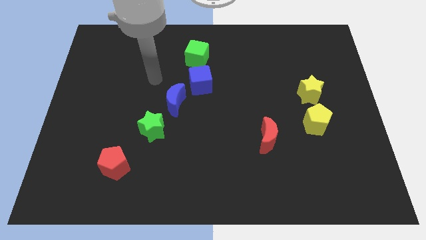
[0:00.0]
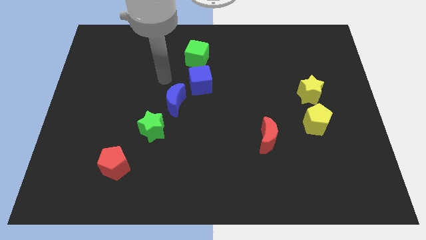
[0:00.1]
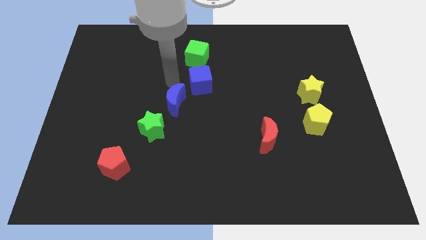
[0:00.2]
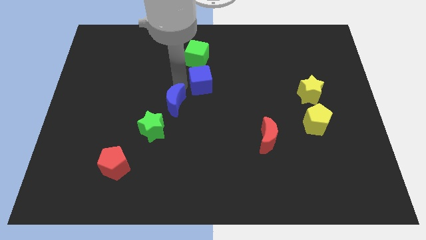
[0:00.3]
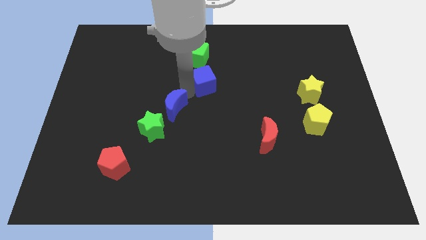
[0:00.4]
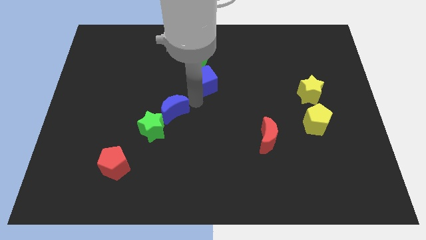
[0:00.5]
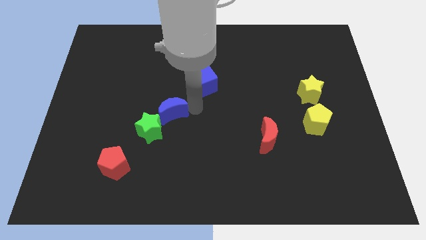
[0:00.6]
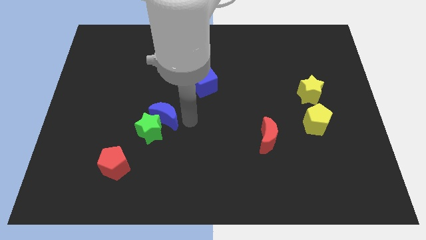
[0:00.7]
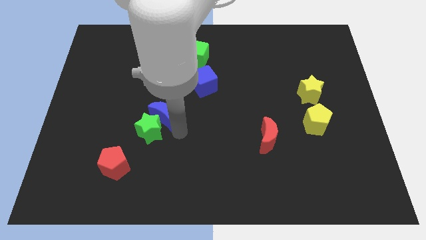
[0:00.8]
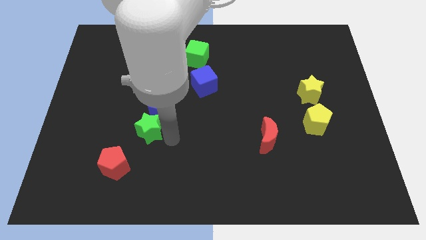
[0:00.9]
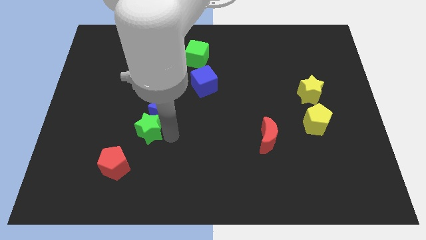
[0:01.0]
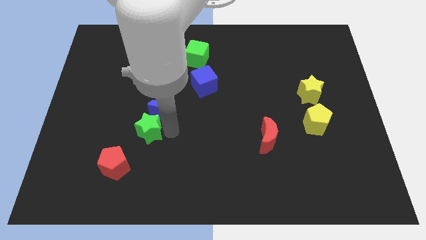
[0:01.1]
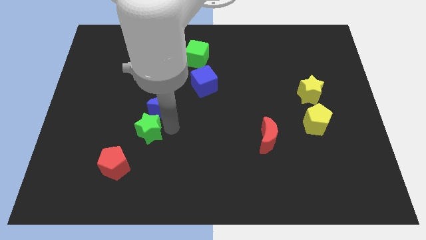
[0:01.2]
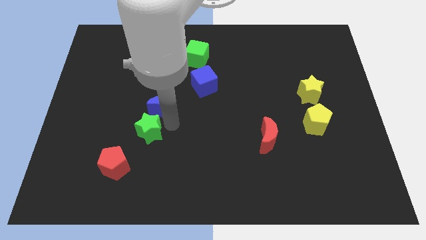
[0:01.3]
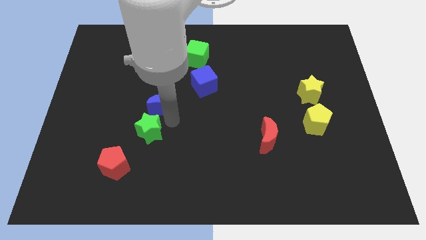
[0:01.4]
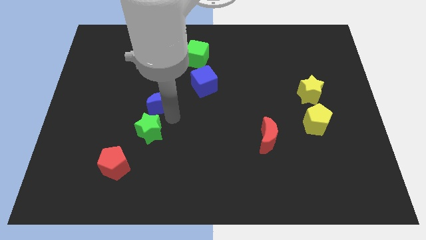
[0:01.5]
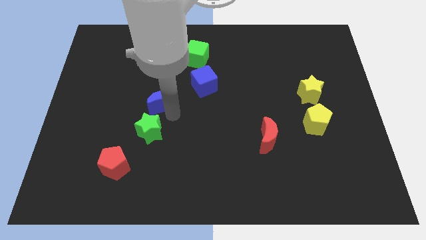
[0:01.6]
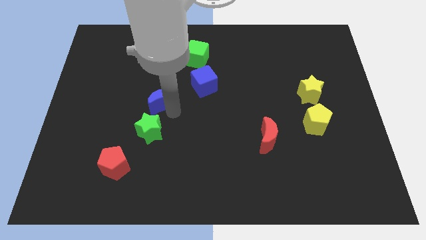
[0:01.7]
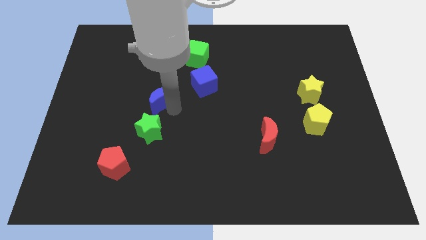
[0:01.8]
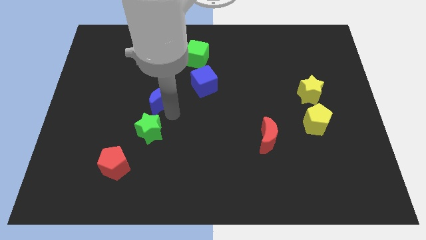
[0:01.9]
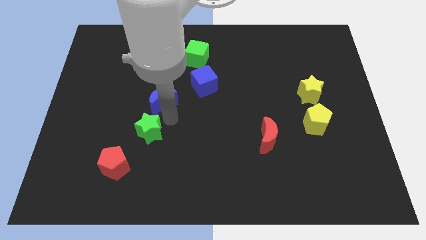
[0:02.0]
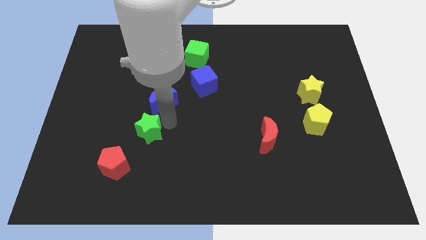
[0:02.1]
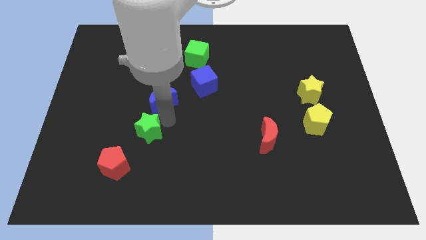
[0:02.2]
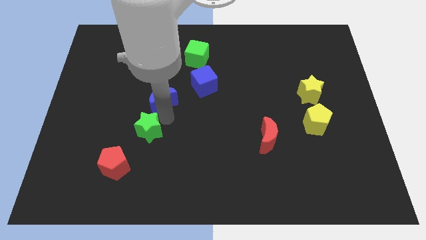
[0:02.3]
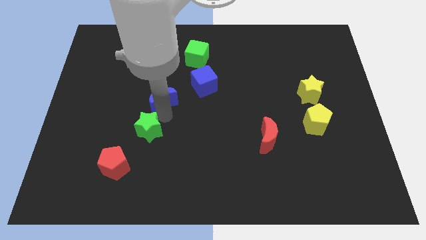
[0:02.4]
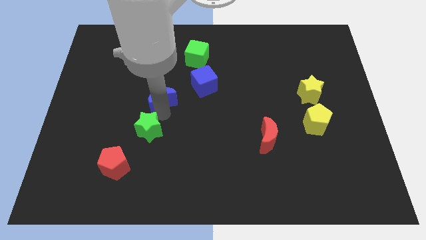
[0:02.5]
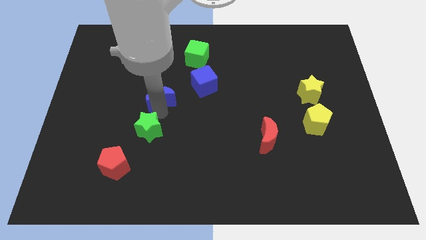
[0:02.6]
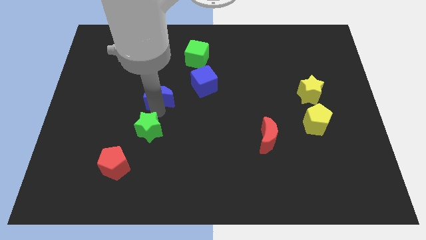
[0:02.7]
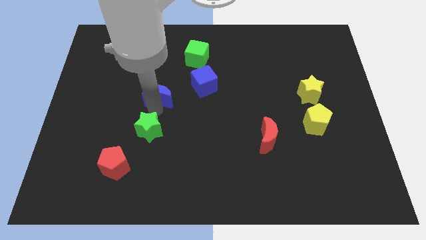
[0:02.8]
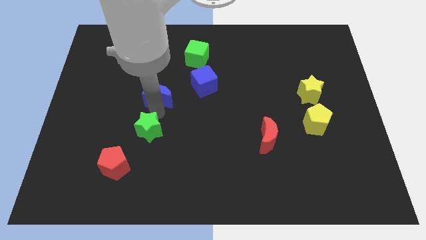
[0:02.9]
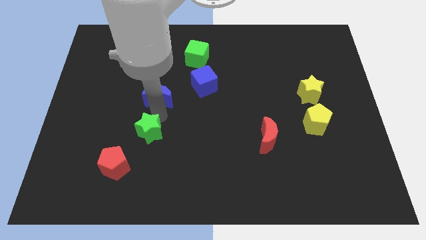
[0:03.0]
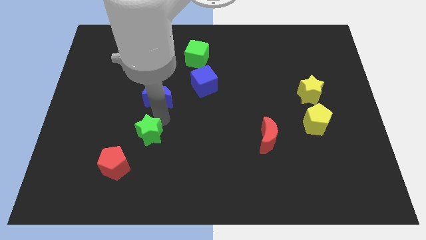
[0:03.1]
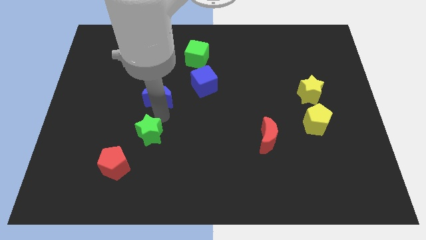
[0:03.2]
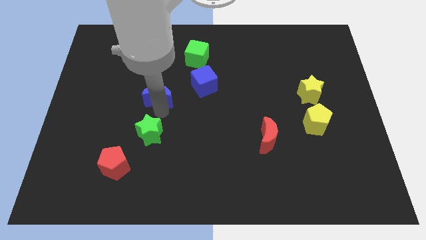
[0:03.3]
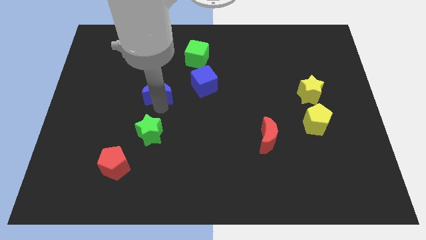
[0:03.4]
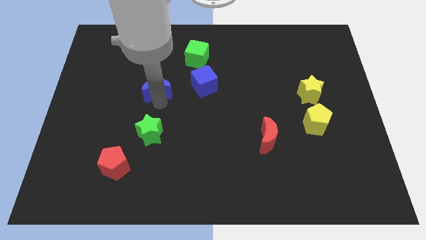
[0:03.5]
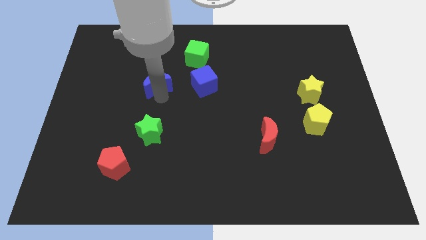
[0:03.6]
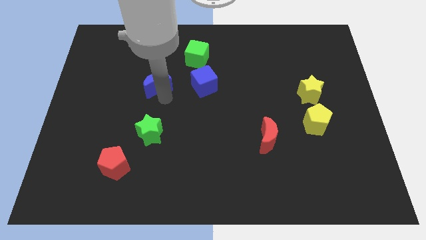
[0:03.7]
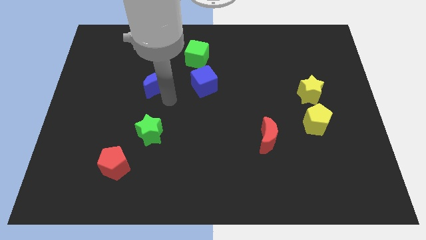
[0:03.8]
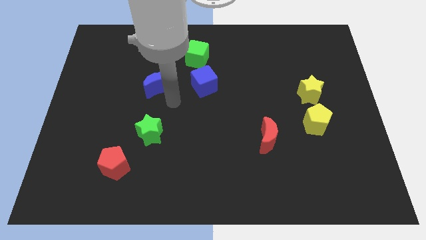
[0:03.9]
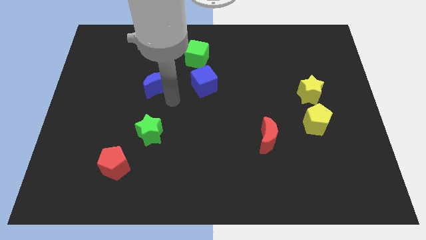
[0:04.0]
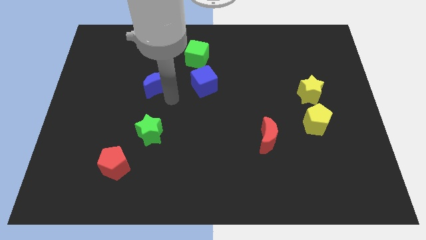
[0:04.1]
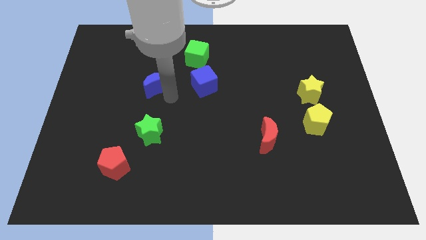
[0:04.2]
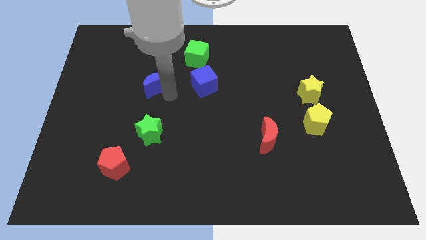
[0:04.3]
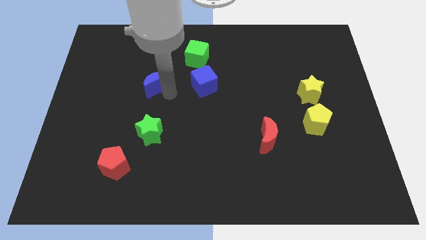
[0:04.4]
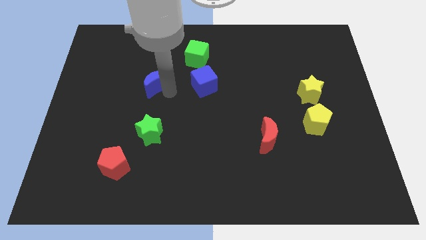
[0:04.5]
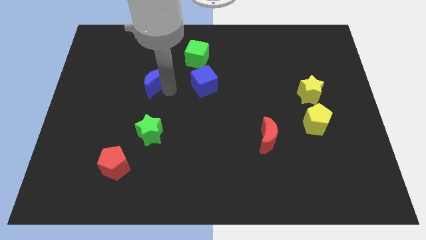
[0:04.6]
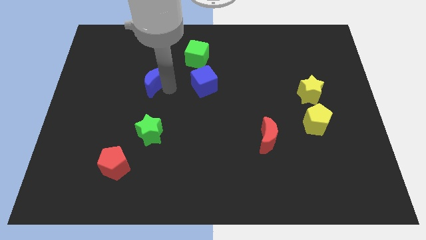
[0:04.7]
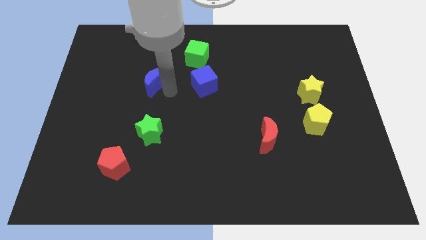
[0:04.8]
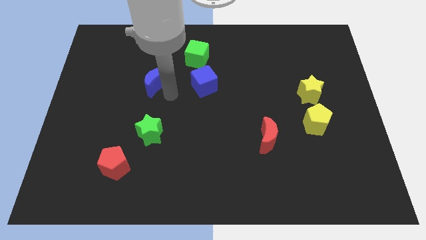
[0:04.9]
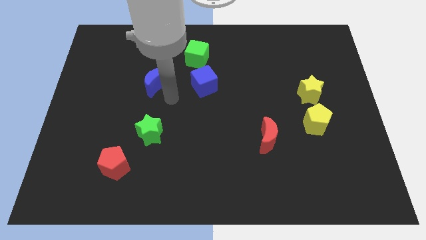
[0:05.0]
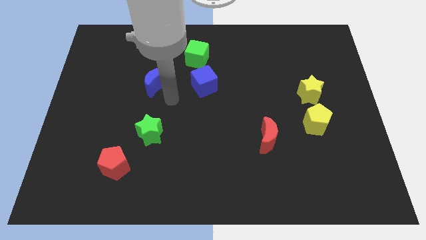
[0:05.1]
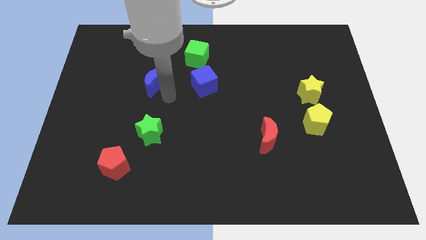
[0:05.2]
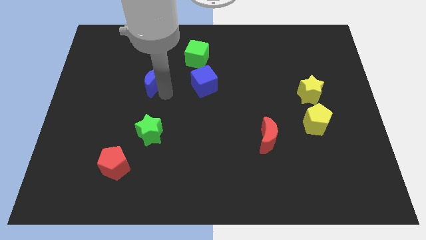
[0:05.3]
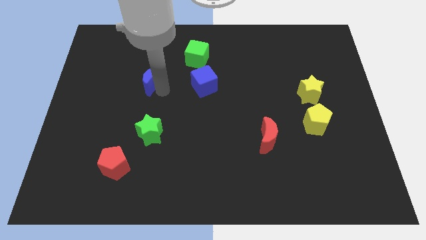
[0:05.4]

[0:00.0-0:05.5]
pull the blue moon apart from the blue cube and green star

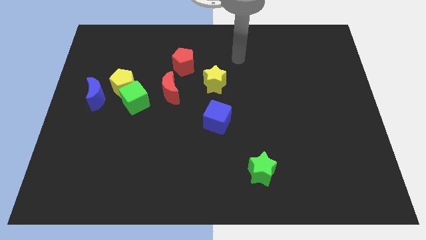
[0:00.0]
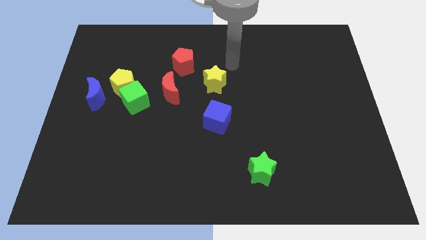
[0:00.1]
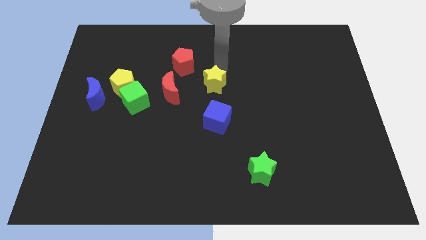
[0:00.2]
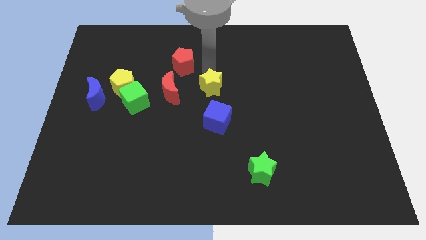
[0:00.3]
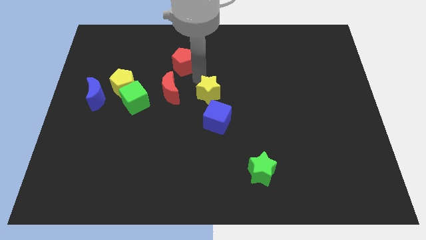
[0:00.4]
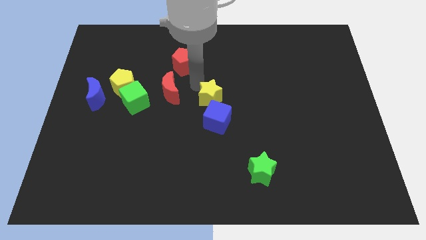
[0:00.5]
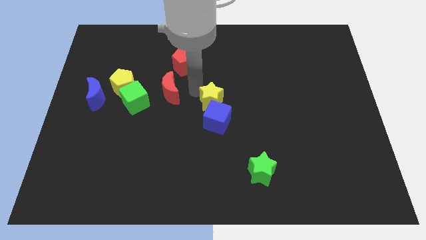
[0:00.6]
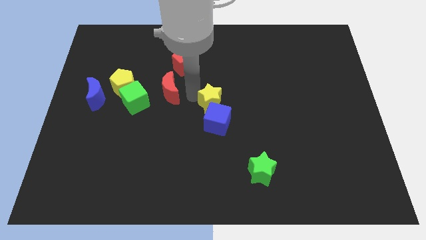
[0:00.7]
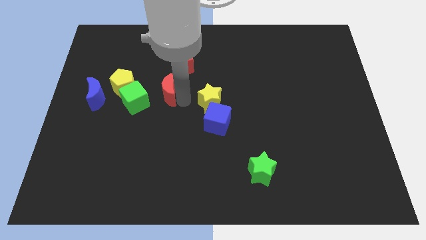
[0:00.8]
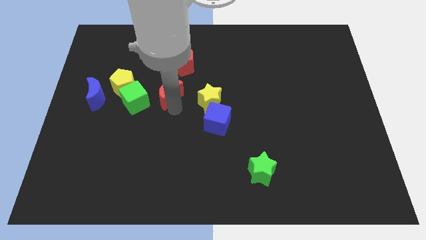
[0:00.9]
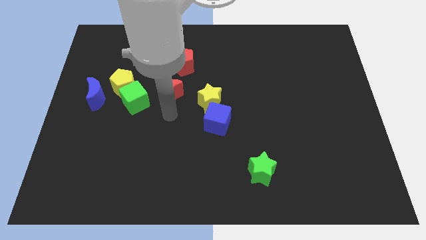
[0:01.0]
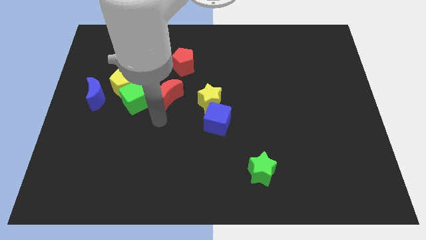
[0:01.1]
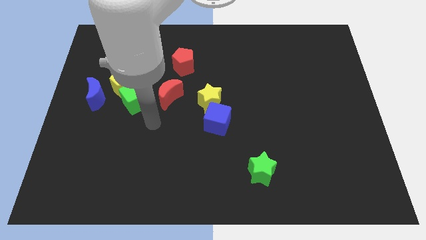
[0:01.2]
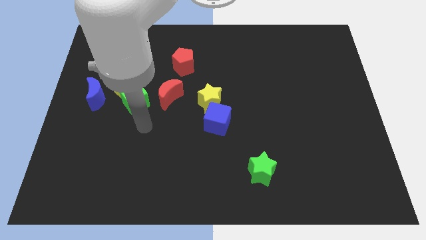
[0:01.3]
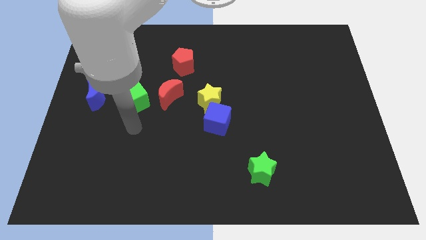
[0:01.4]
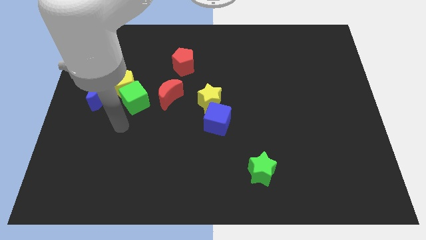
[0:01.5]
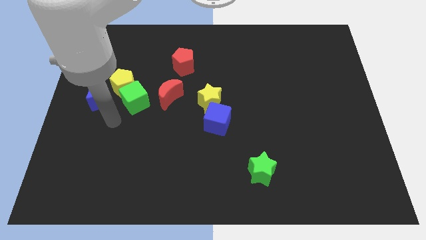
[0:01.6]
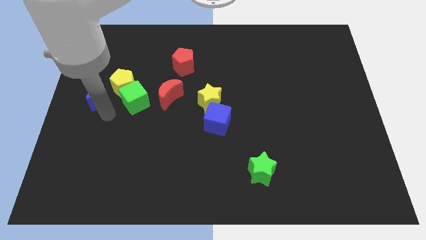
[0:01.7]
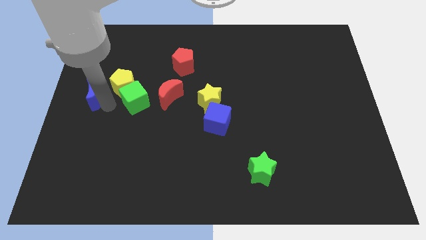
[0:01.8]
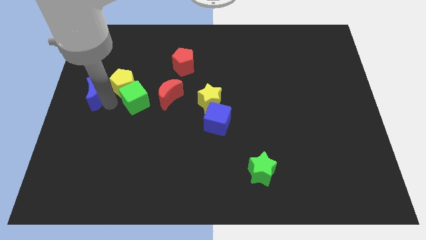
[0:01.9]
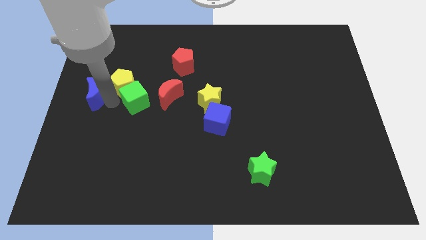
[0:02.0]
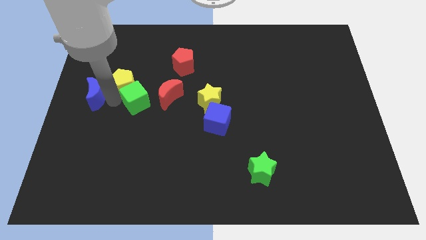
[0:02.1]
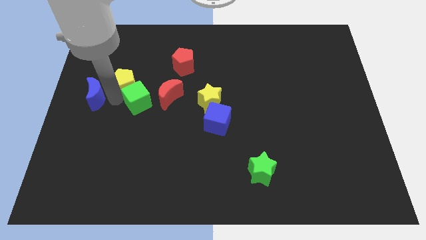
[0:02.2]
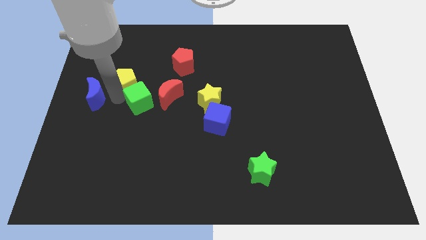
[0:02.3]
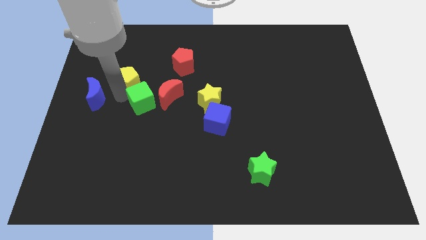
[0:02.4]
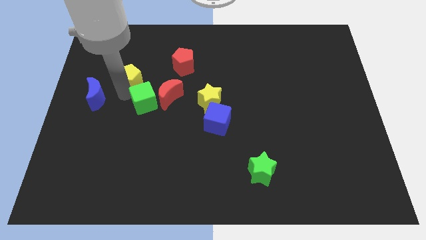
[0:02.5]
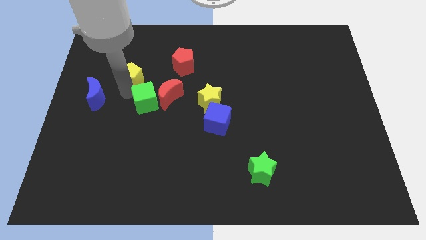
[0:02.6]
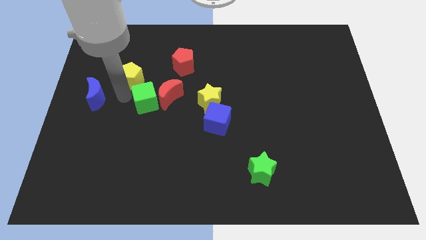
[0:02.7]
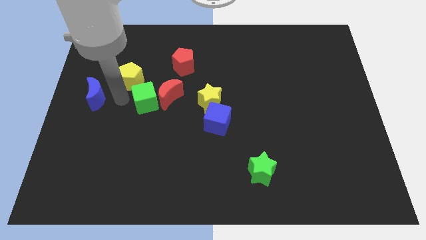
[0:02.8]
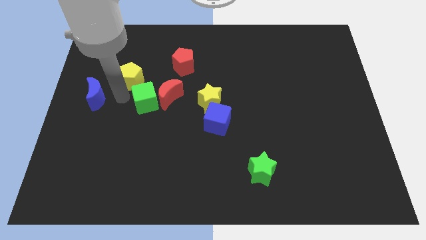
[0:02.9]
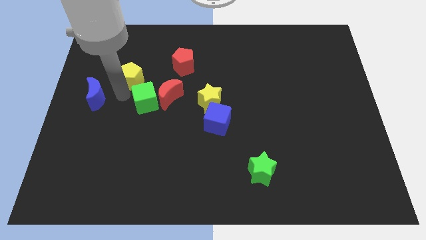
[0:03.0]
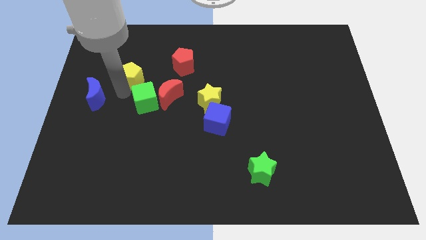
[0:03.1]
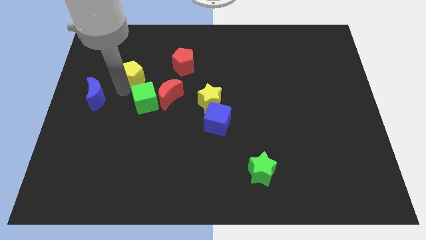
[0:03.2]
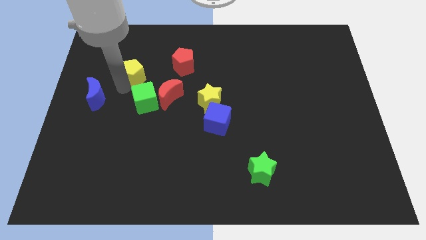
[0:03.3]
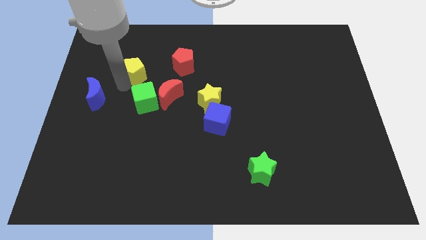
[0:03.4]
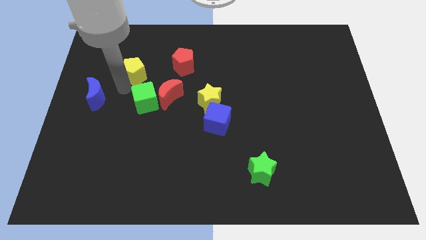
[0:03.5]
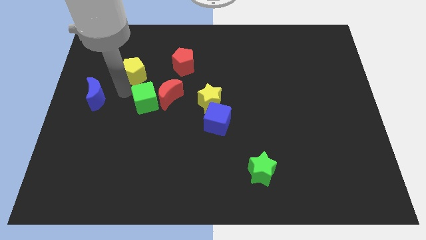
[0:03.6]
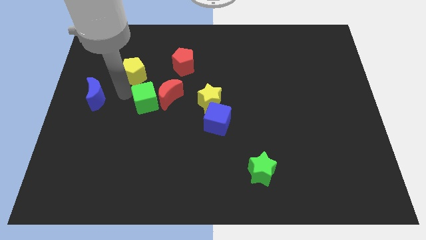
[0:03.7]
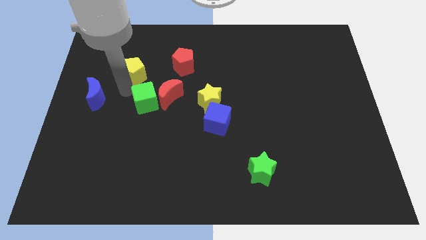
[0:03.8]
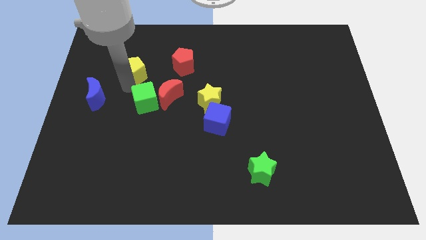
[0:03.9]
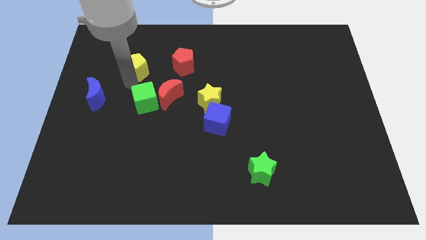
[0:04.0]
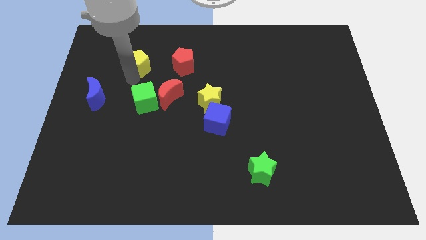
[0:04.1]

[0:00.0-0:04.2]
separate the yellow pentagon from the green cube and blue moon
